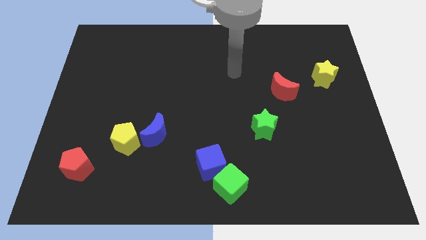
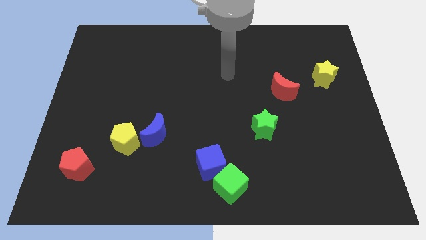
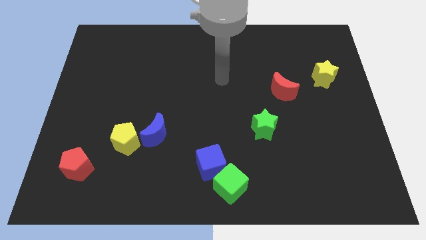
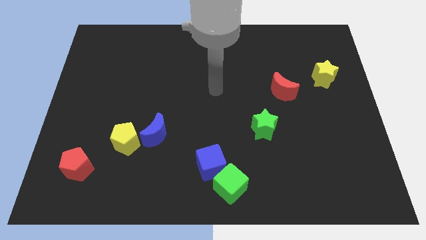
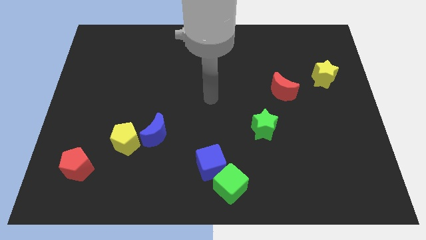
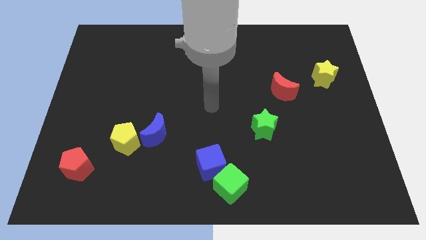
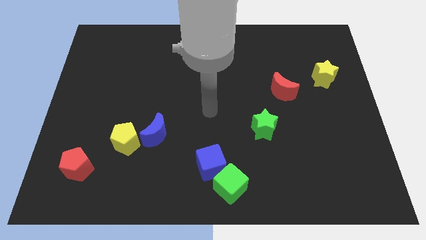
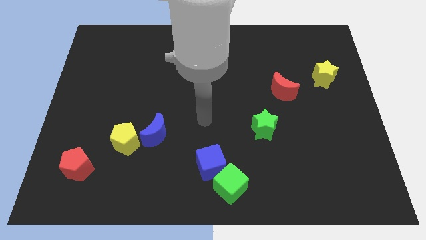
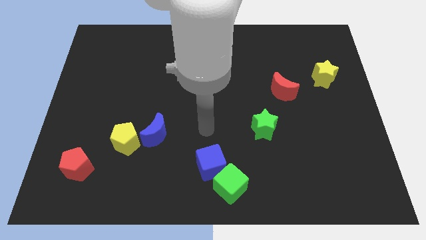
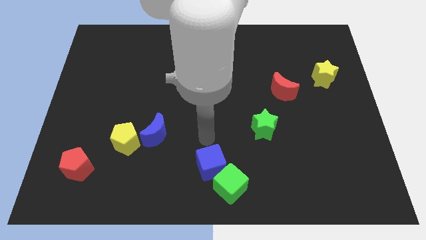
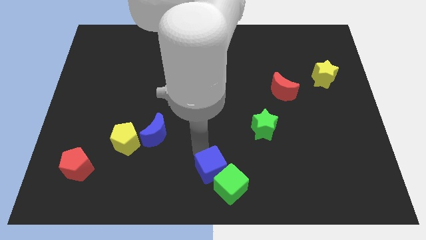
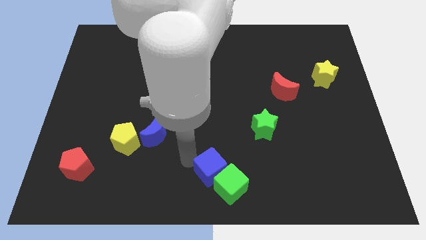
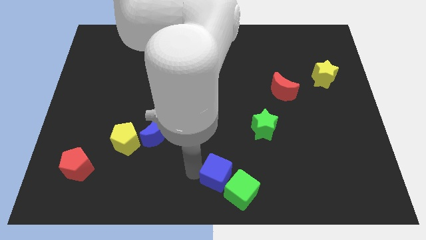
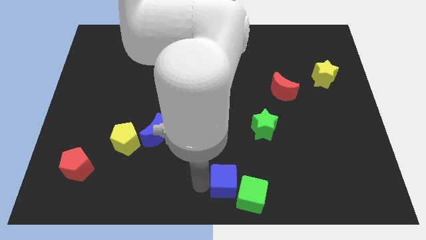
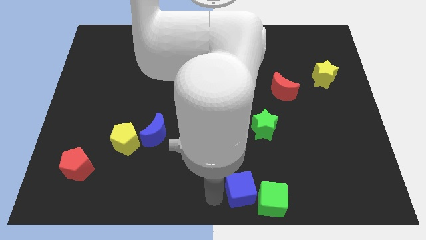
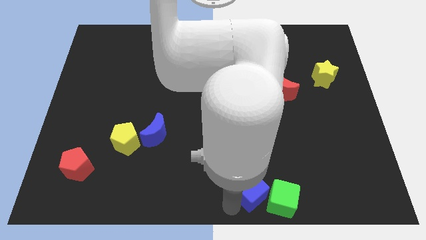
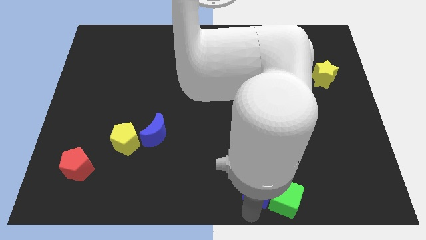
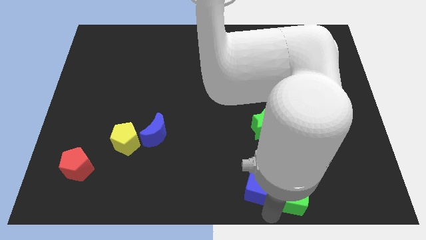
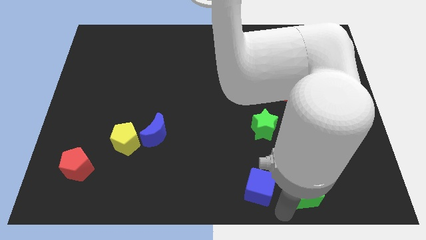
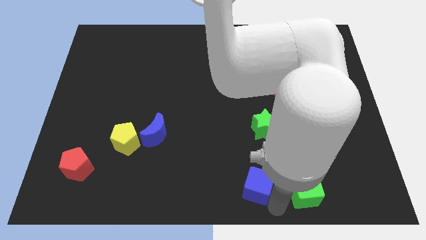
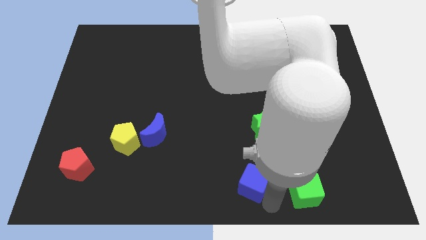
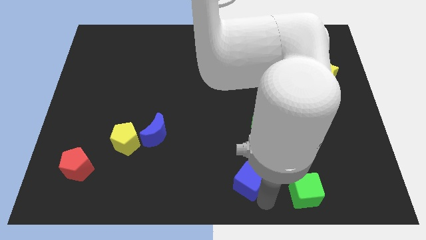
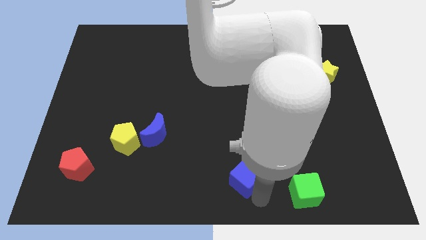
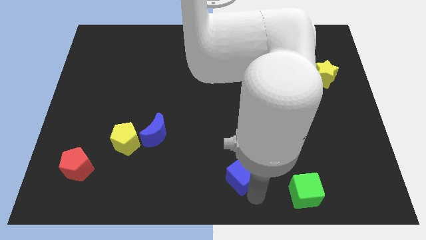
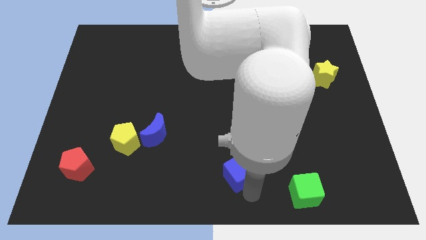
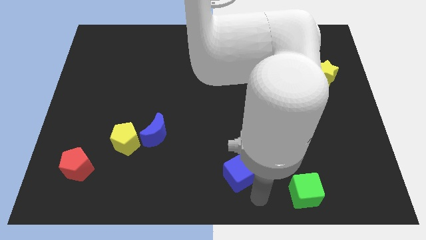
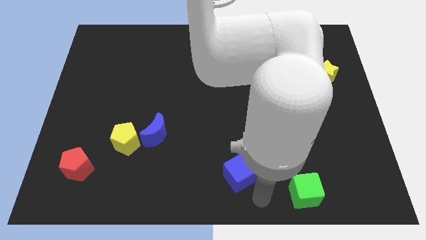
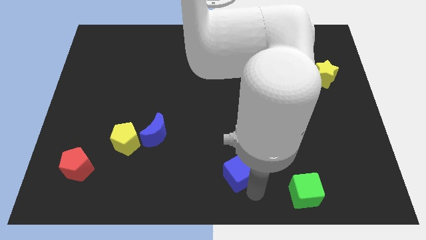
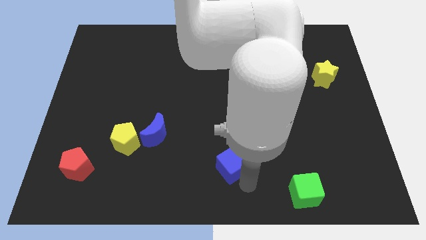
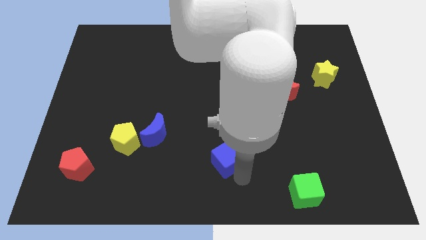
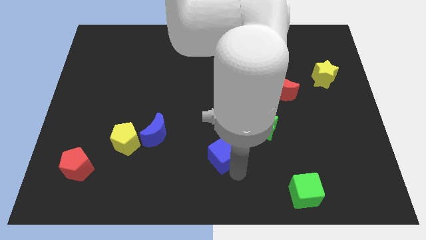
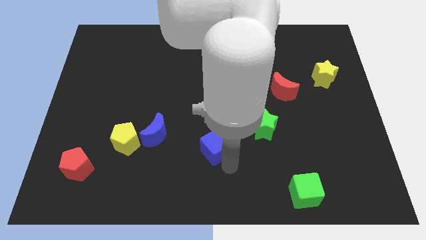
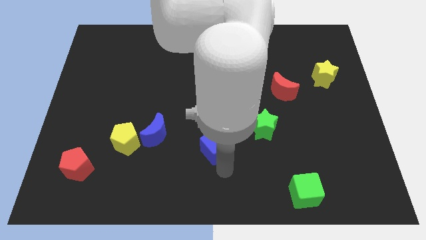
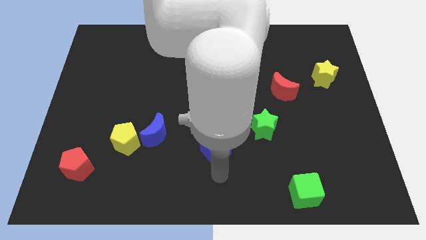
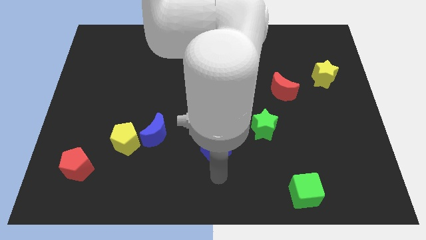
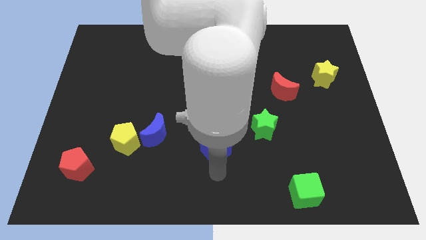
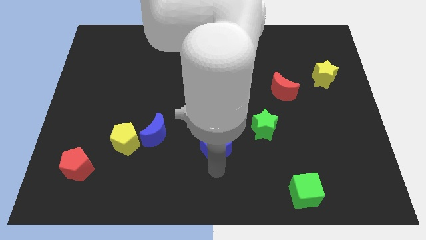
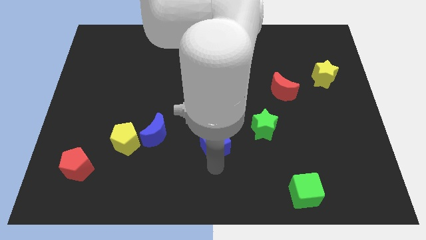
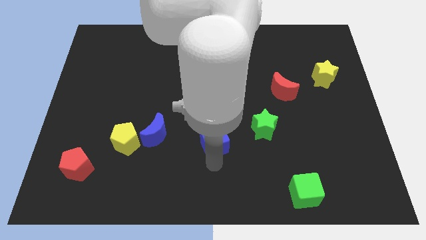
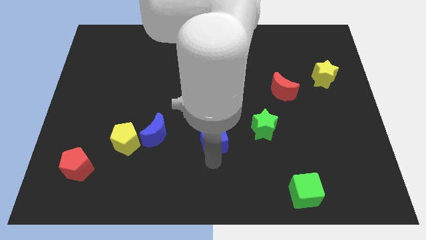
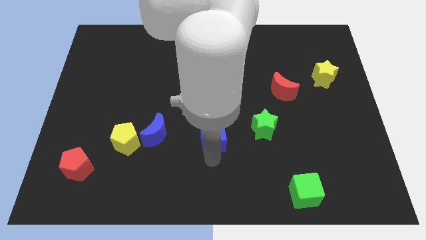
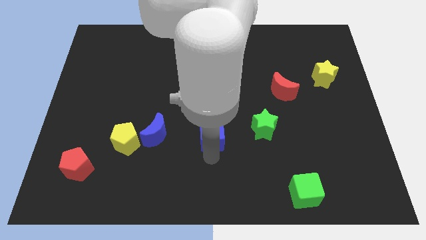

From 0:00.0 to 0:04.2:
move the blue cube a little bit upwards

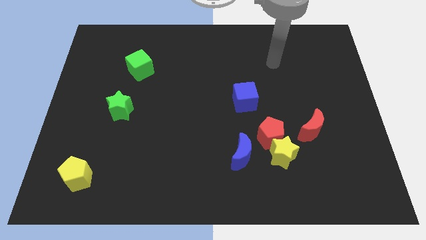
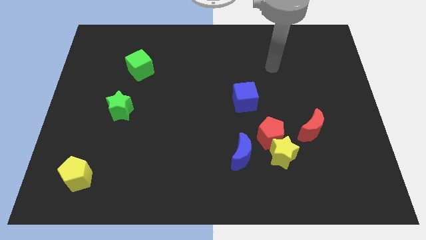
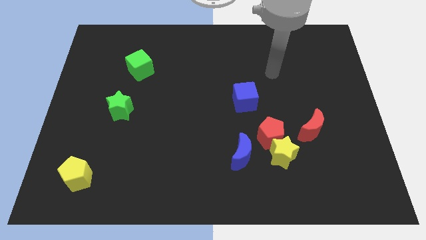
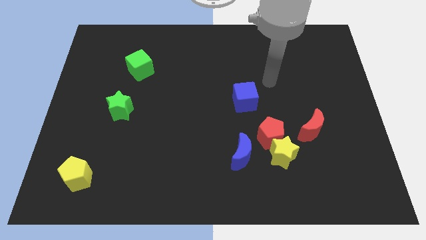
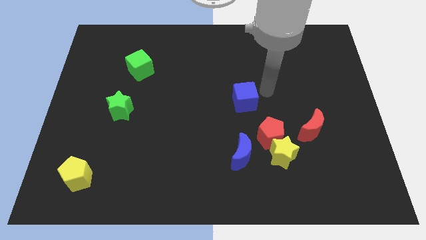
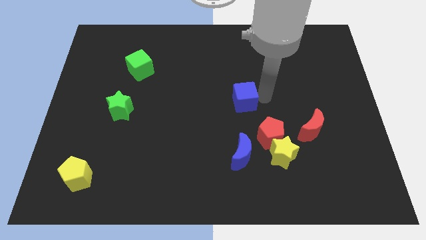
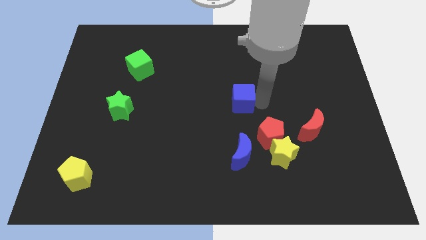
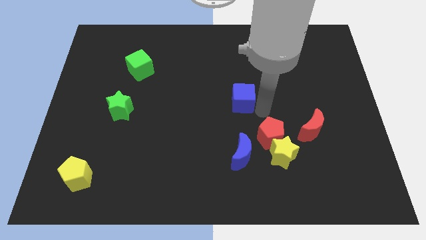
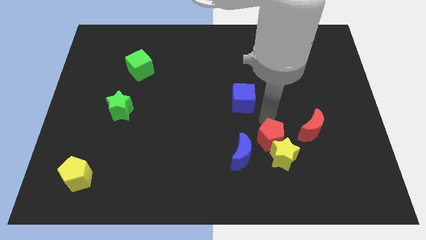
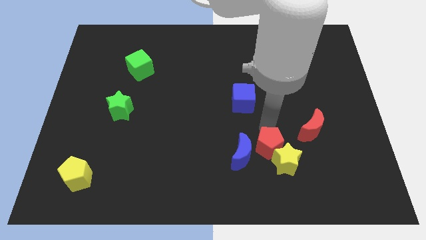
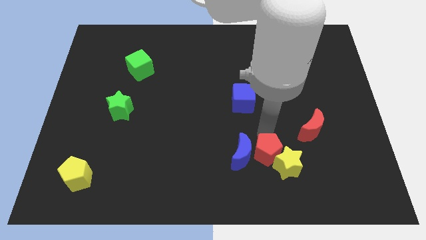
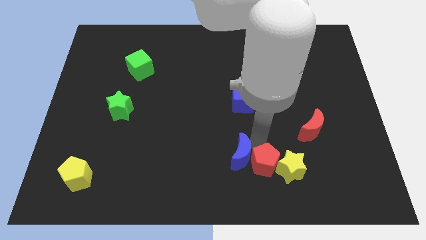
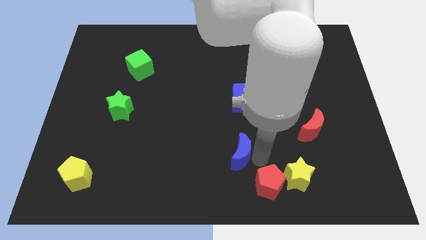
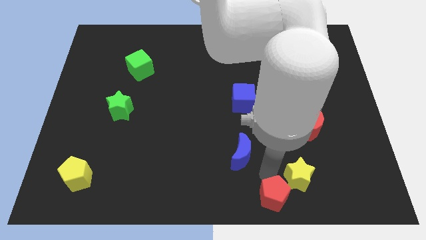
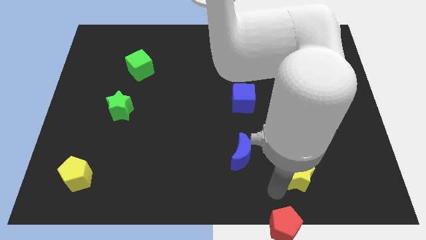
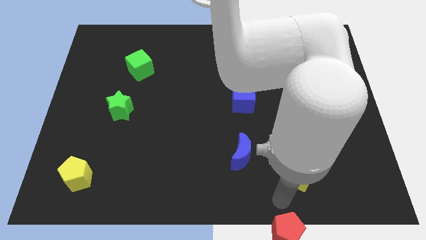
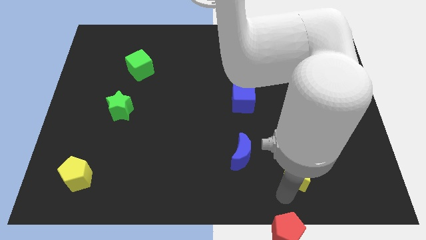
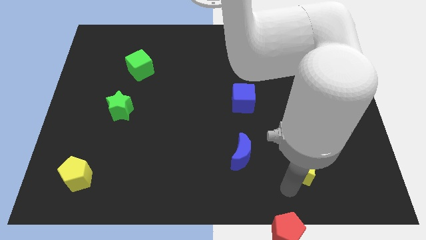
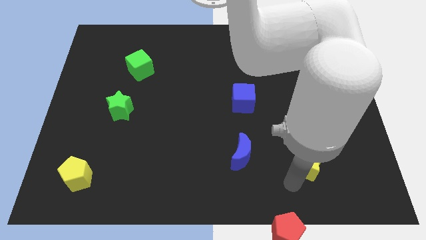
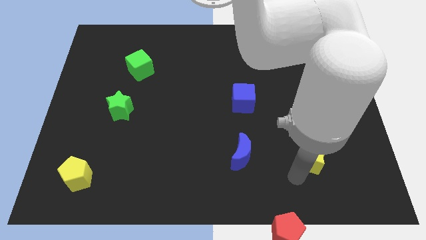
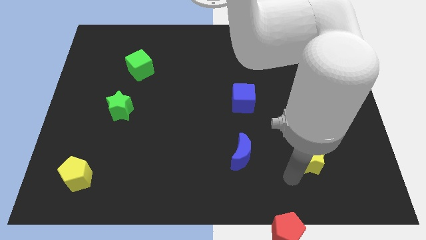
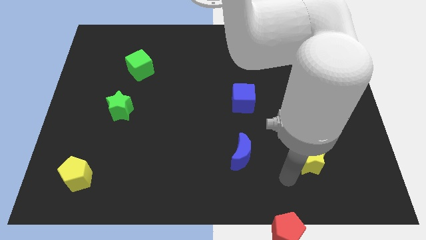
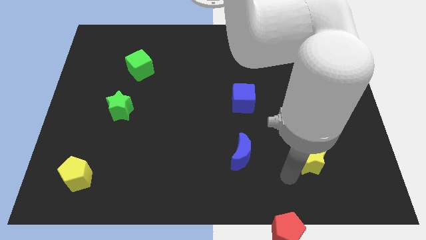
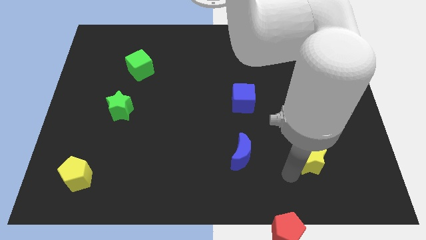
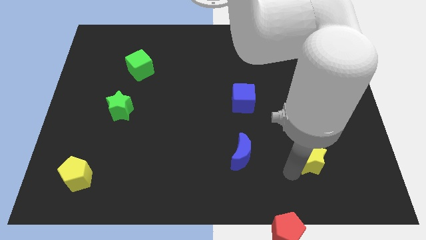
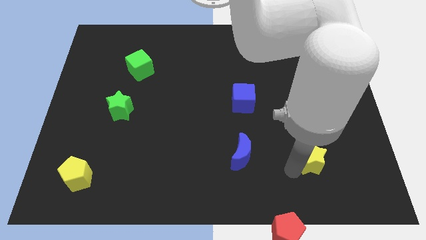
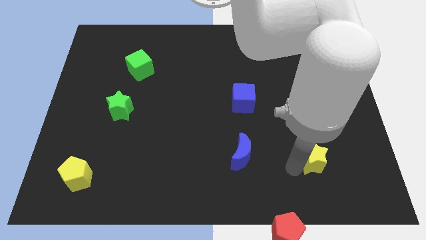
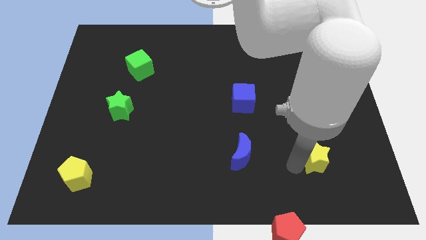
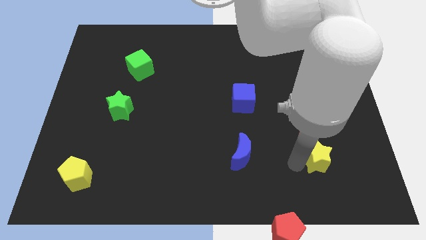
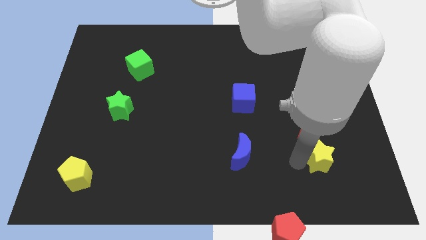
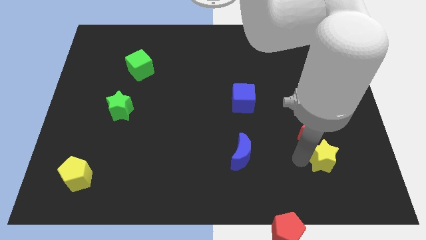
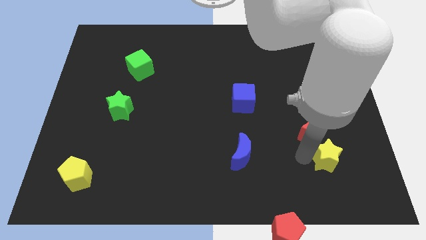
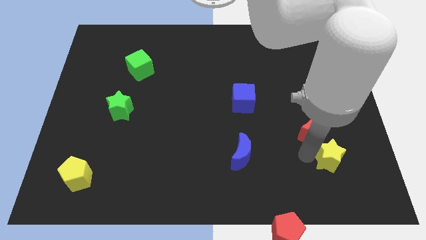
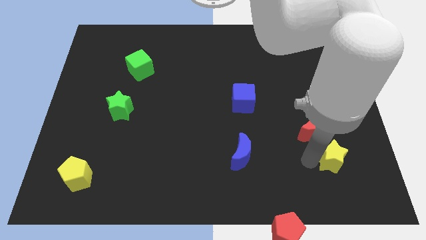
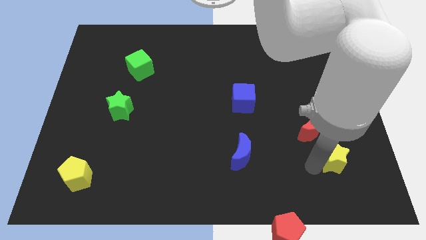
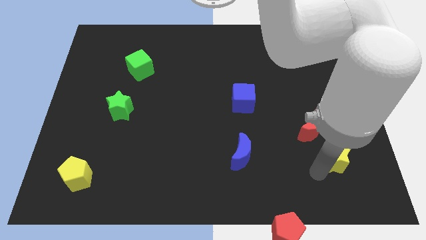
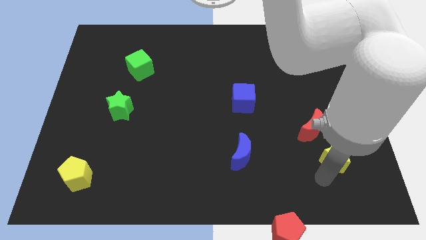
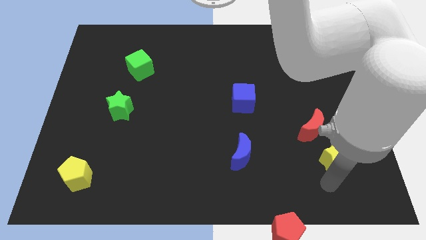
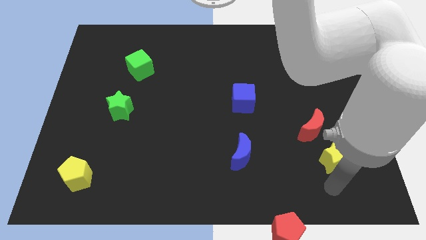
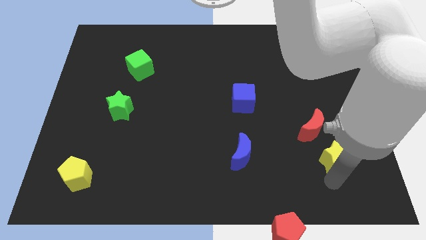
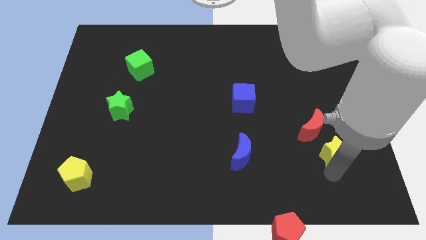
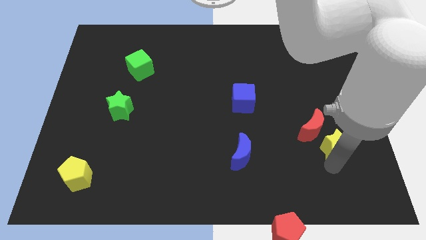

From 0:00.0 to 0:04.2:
move the yellow star up and then to the right a little
